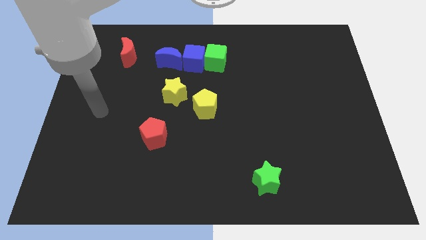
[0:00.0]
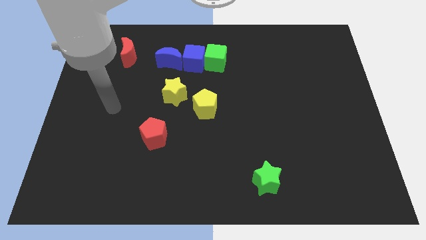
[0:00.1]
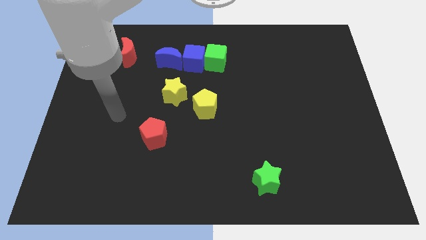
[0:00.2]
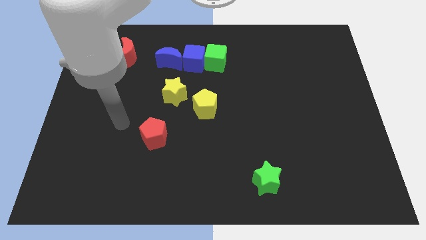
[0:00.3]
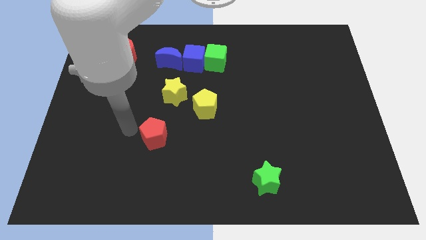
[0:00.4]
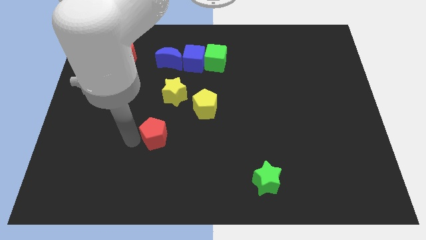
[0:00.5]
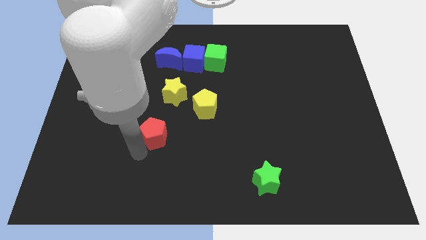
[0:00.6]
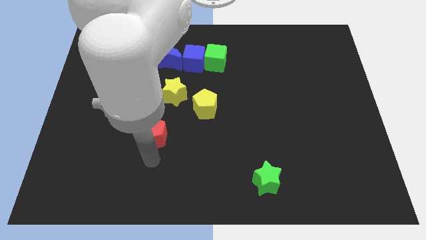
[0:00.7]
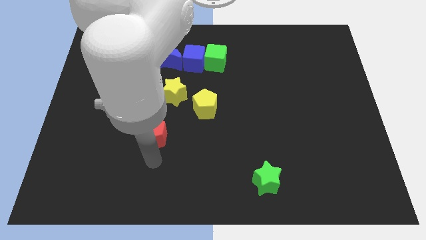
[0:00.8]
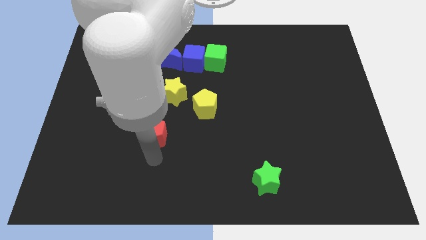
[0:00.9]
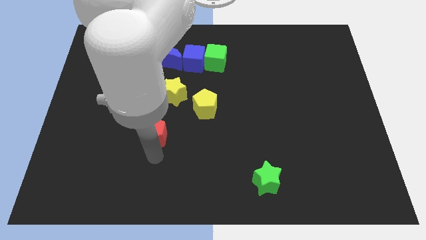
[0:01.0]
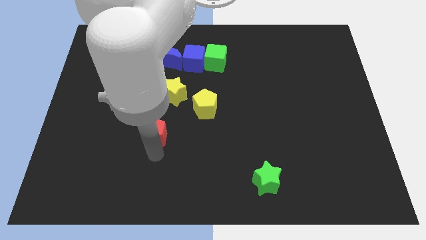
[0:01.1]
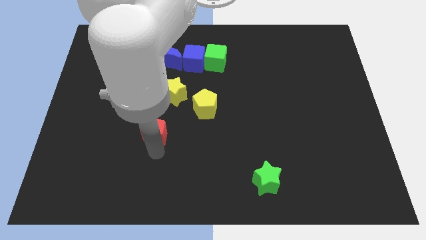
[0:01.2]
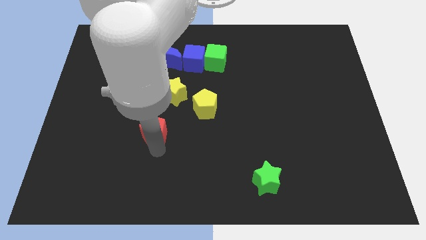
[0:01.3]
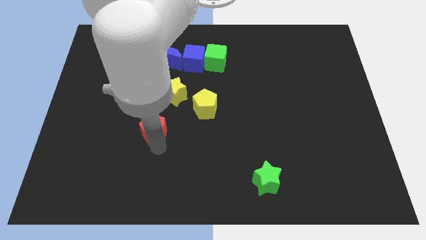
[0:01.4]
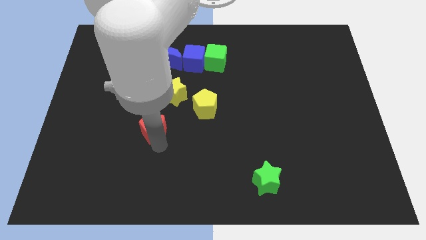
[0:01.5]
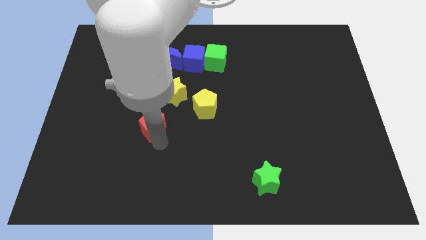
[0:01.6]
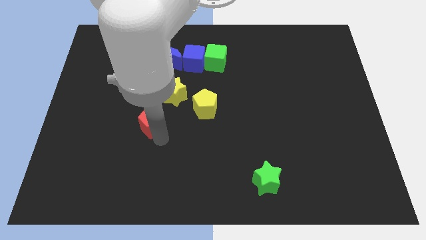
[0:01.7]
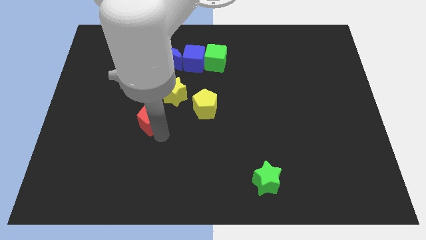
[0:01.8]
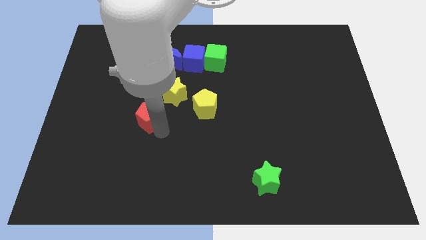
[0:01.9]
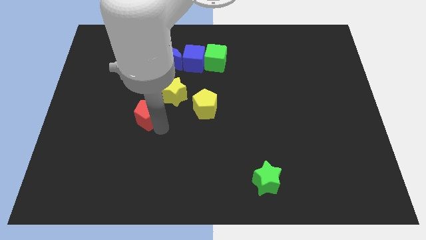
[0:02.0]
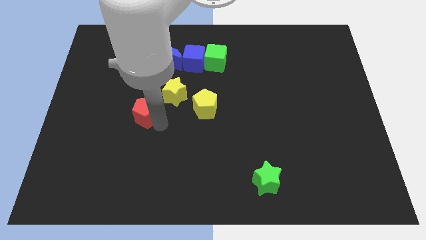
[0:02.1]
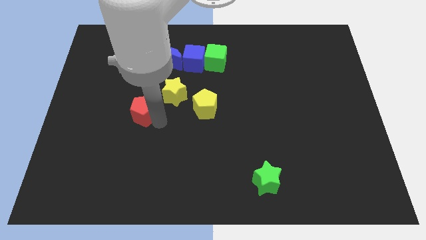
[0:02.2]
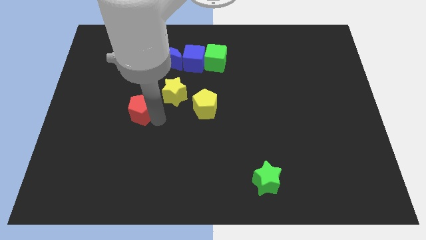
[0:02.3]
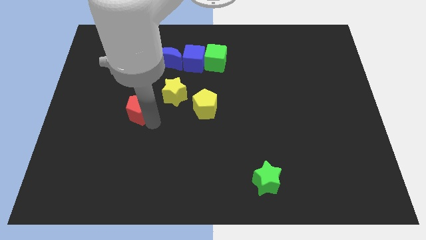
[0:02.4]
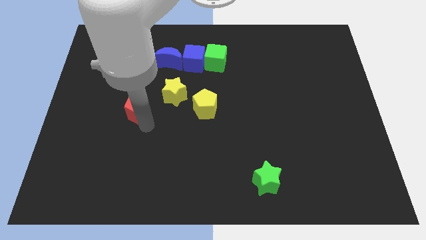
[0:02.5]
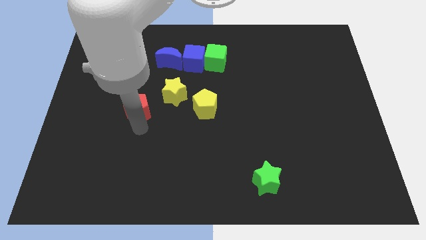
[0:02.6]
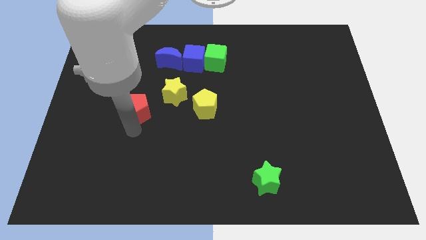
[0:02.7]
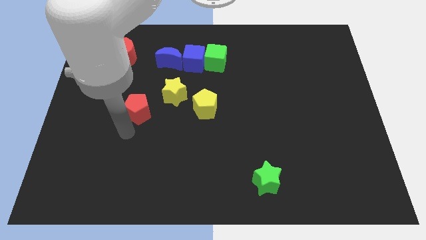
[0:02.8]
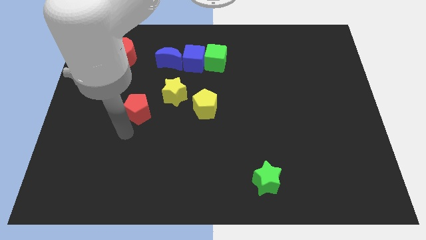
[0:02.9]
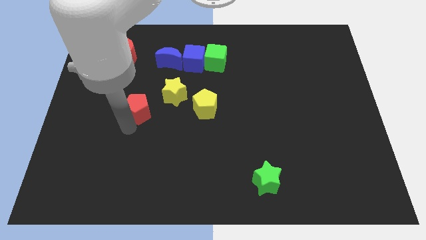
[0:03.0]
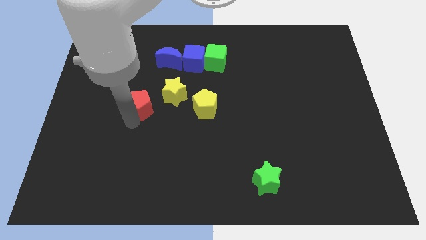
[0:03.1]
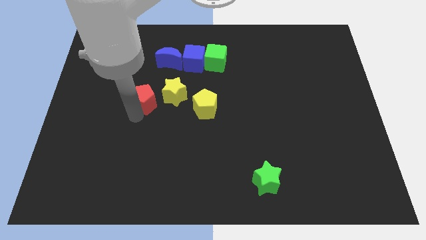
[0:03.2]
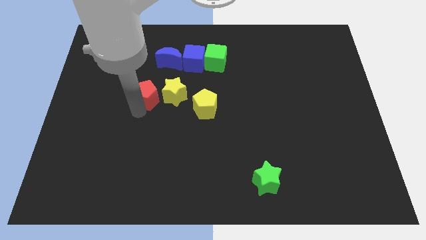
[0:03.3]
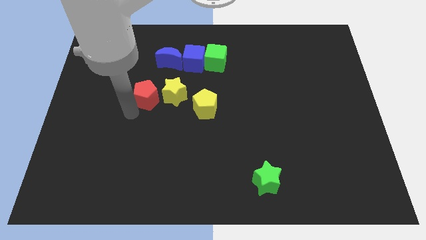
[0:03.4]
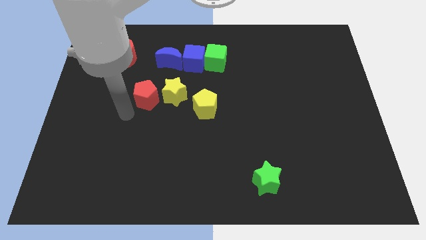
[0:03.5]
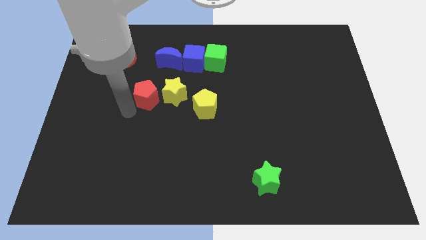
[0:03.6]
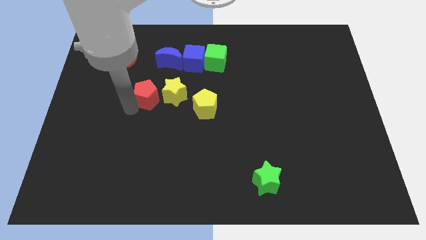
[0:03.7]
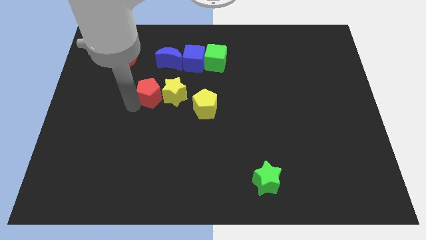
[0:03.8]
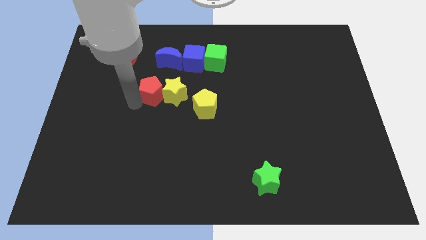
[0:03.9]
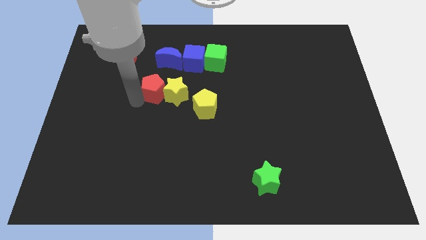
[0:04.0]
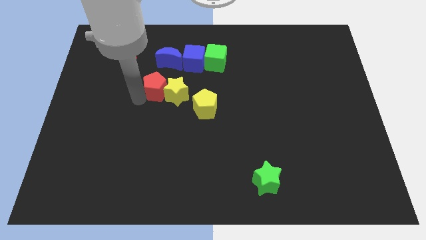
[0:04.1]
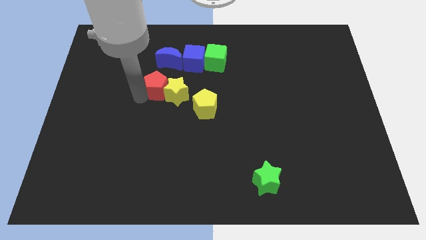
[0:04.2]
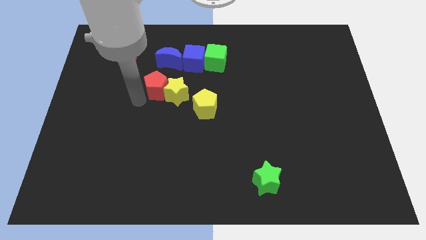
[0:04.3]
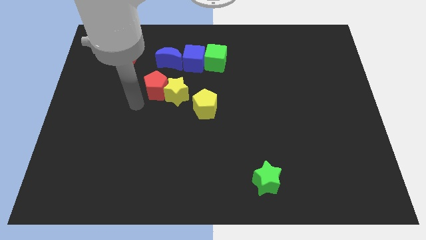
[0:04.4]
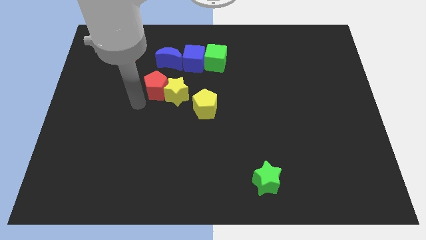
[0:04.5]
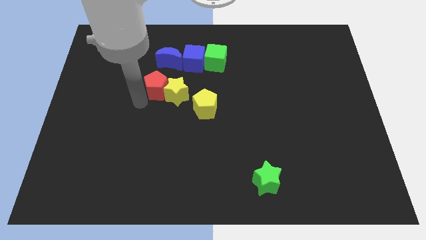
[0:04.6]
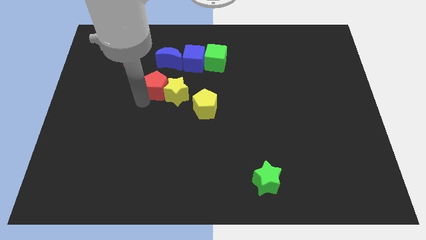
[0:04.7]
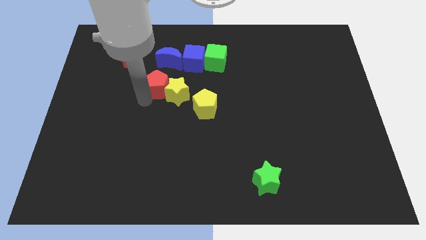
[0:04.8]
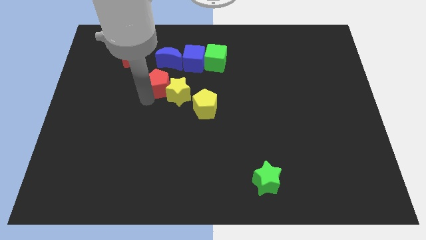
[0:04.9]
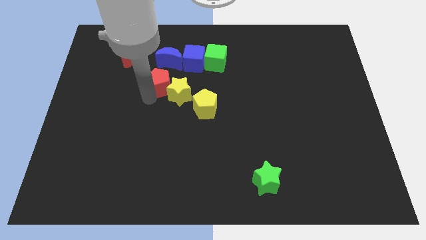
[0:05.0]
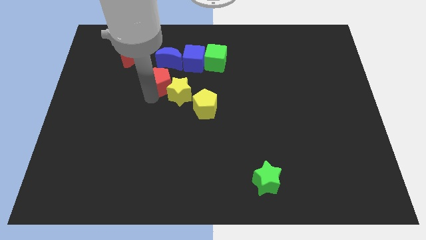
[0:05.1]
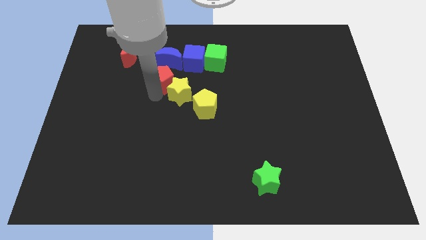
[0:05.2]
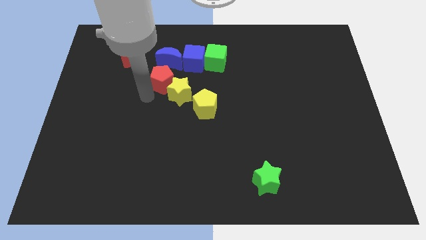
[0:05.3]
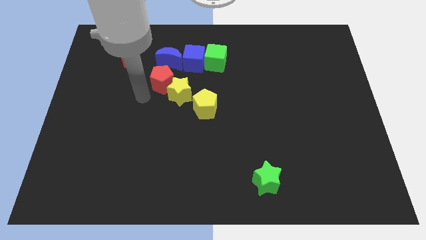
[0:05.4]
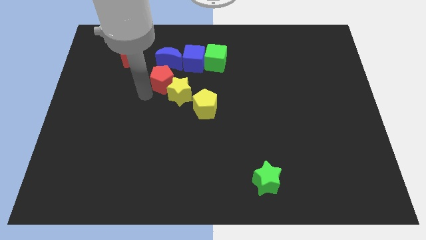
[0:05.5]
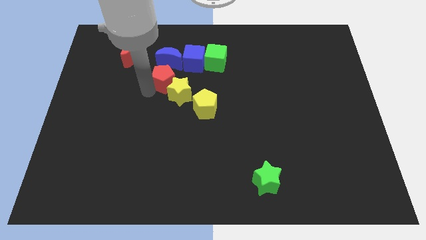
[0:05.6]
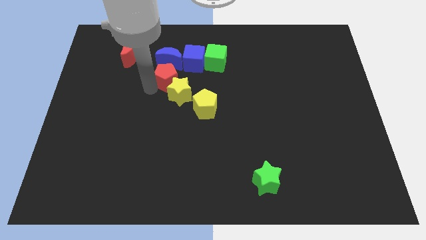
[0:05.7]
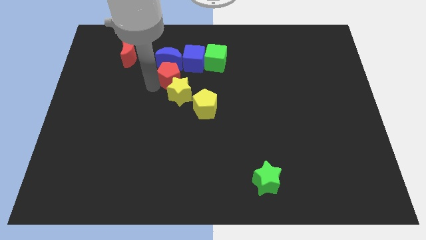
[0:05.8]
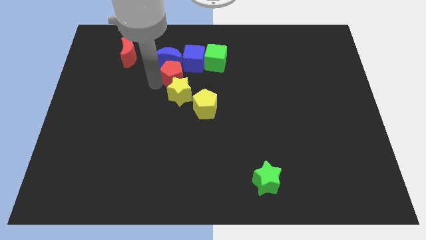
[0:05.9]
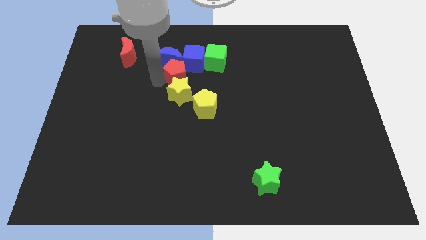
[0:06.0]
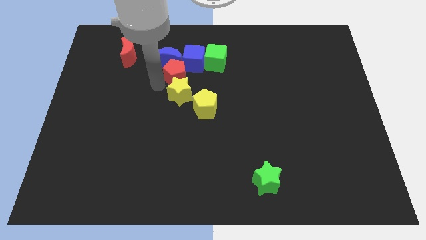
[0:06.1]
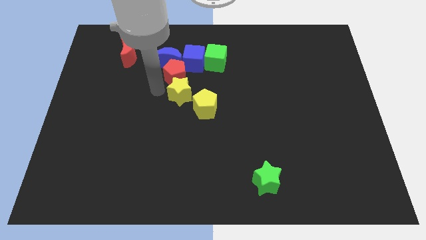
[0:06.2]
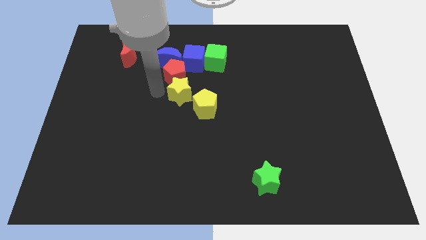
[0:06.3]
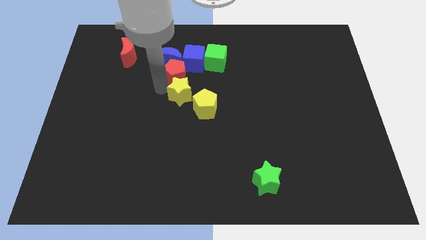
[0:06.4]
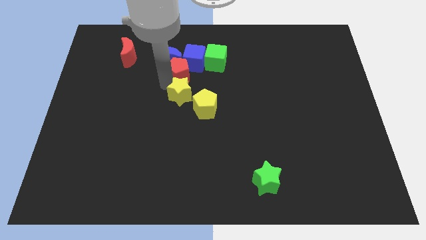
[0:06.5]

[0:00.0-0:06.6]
slide the red pentagon next to the blue cube
